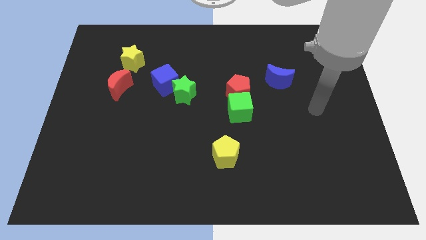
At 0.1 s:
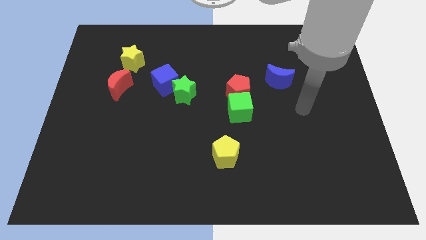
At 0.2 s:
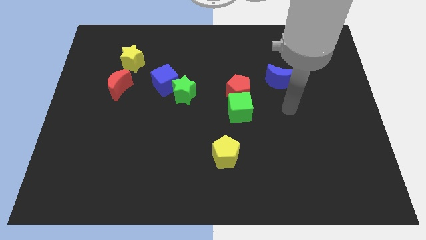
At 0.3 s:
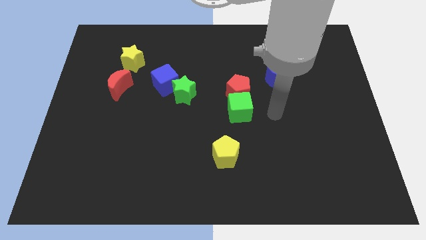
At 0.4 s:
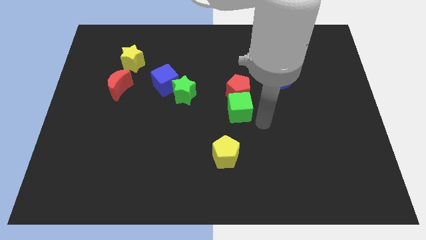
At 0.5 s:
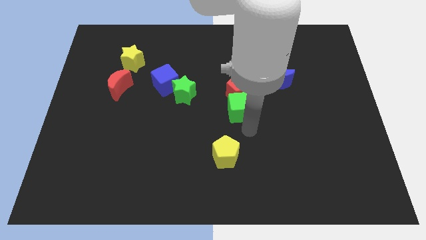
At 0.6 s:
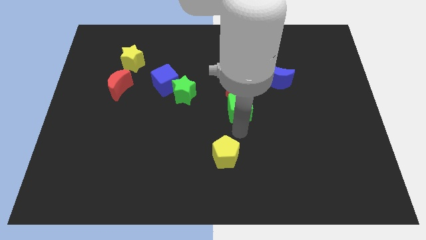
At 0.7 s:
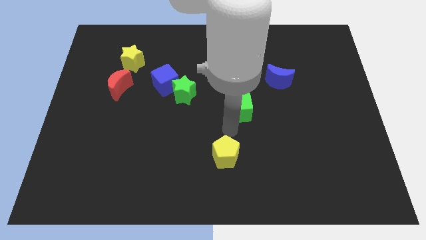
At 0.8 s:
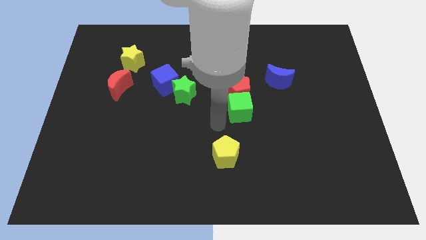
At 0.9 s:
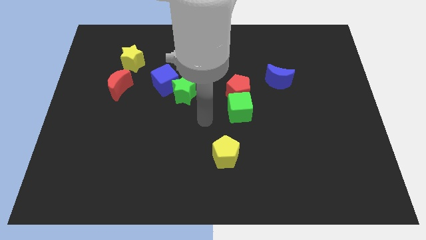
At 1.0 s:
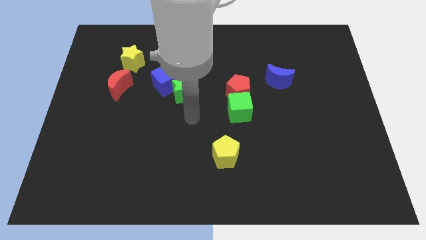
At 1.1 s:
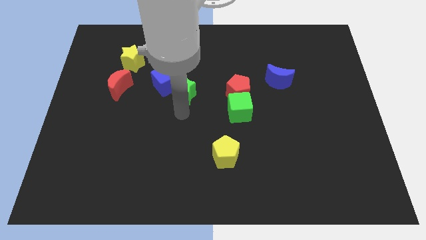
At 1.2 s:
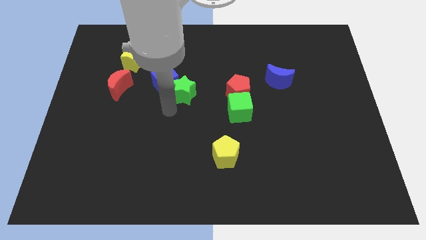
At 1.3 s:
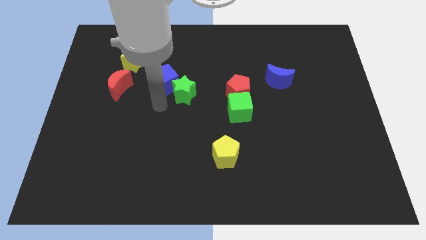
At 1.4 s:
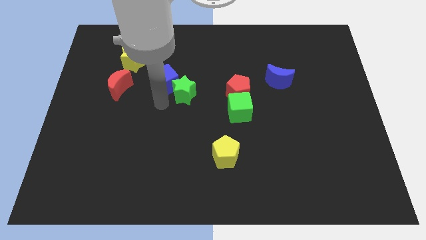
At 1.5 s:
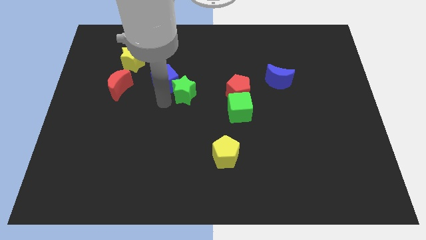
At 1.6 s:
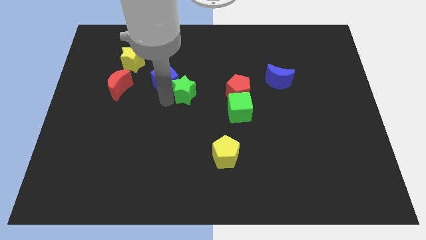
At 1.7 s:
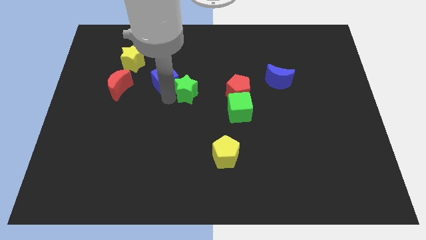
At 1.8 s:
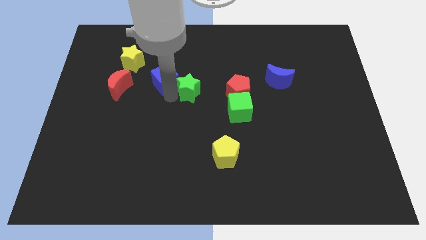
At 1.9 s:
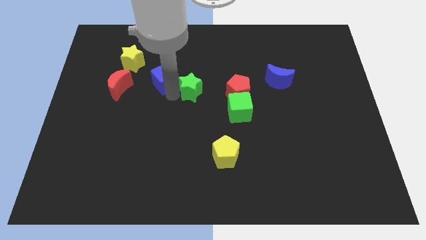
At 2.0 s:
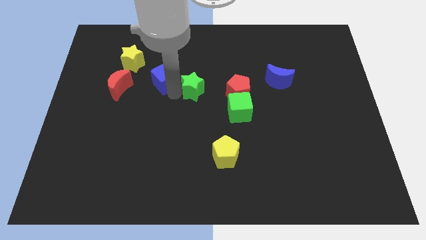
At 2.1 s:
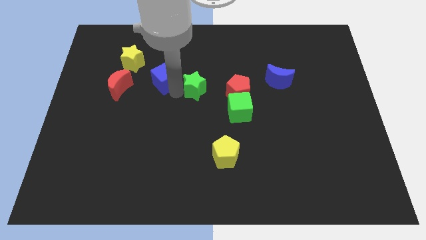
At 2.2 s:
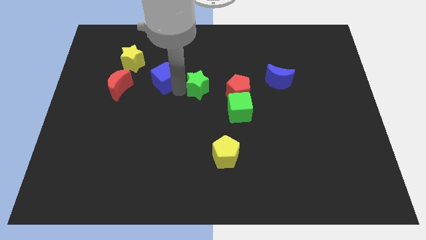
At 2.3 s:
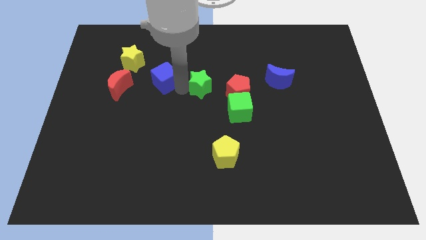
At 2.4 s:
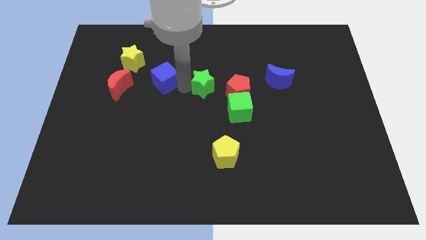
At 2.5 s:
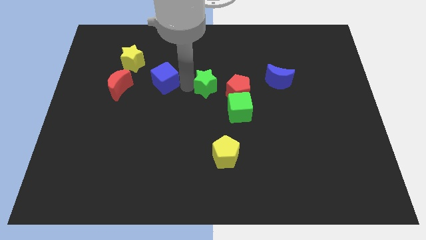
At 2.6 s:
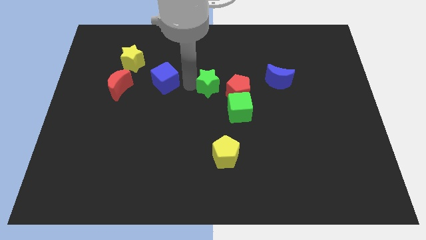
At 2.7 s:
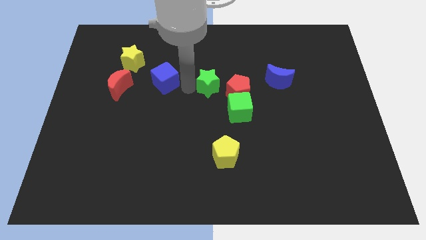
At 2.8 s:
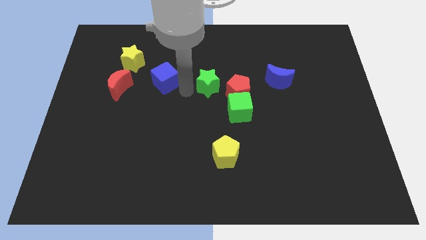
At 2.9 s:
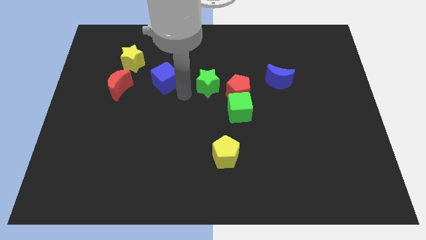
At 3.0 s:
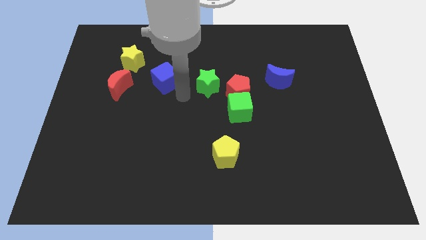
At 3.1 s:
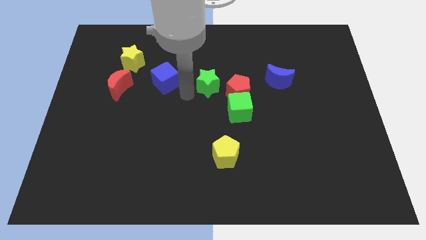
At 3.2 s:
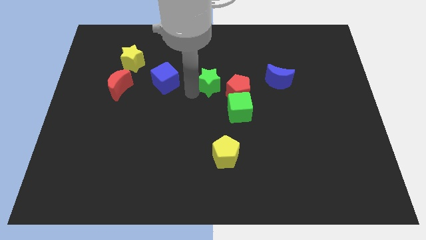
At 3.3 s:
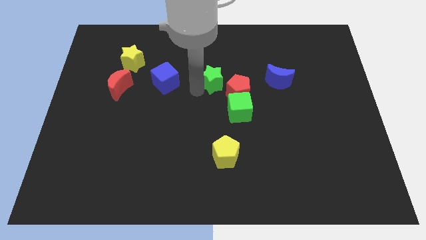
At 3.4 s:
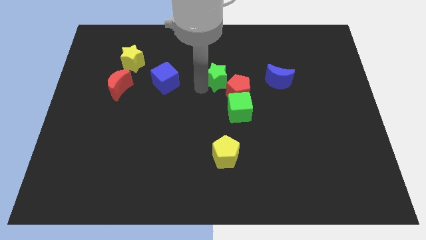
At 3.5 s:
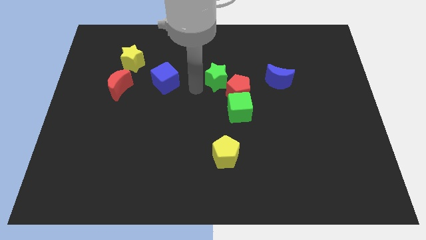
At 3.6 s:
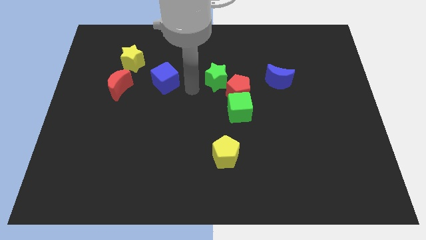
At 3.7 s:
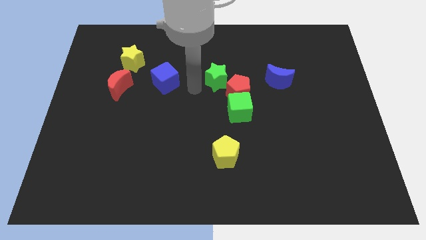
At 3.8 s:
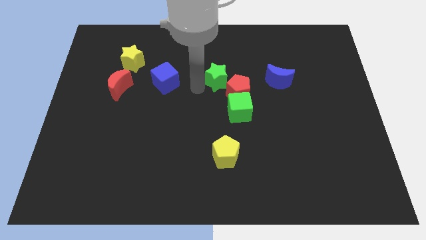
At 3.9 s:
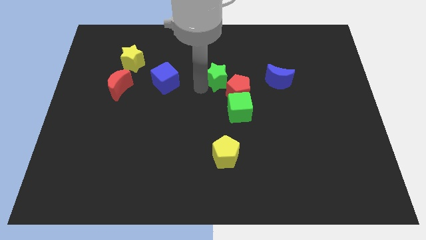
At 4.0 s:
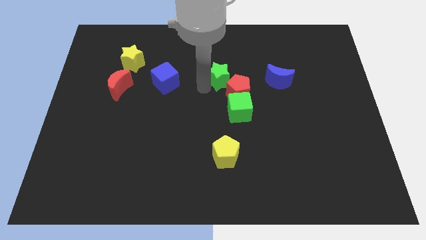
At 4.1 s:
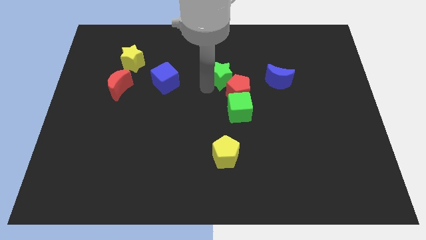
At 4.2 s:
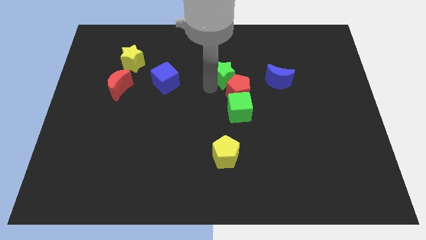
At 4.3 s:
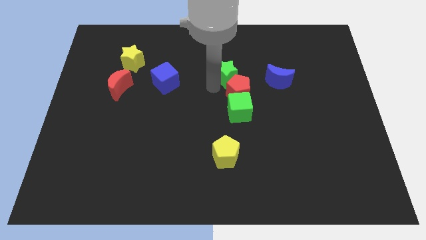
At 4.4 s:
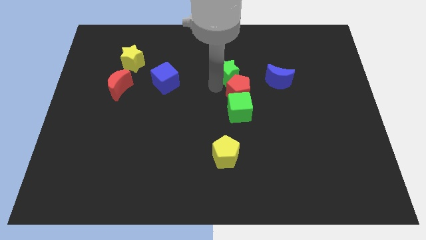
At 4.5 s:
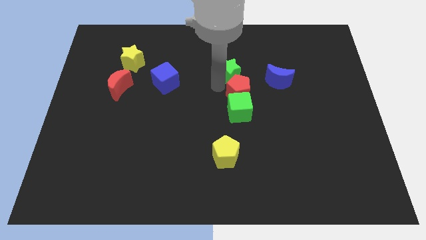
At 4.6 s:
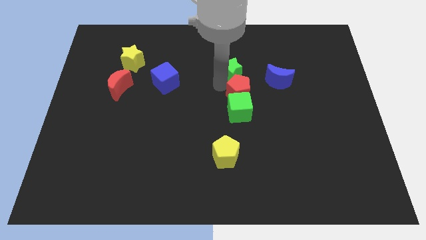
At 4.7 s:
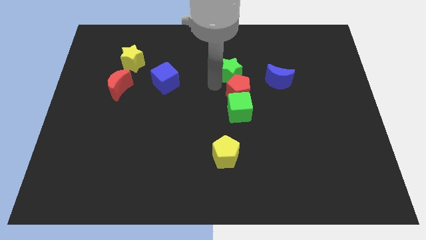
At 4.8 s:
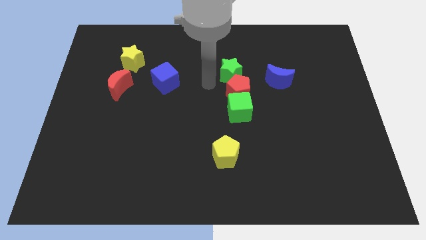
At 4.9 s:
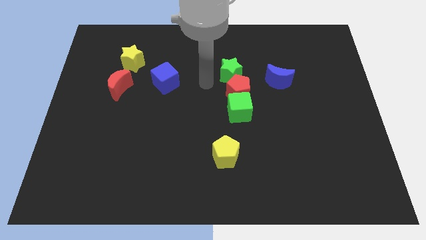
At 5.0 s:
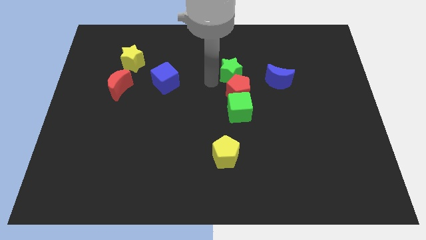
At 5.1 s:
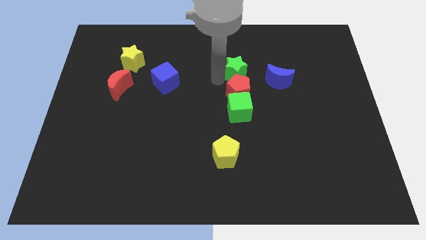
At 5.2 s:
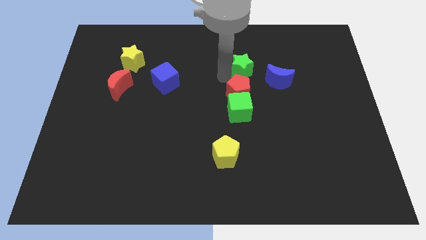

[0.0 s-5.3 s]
move the green star to the top left of the blue moon

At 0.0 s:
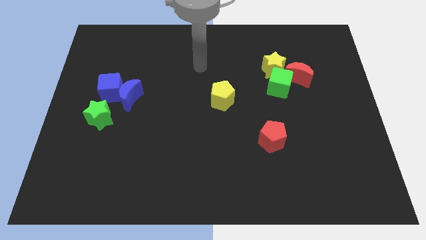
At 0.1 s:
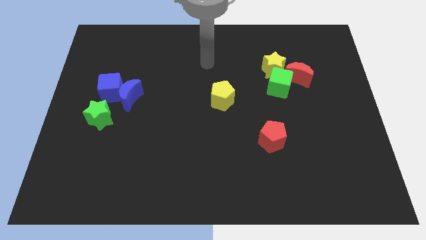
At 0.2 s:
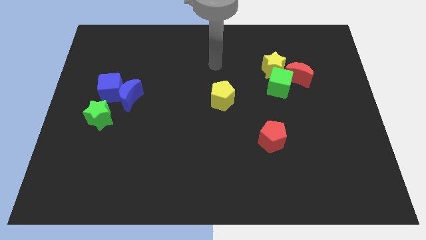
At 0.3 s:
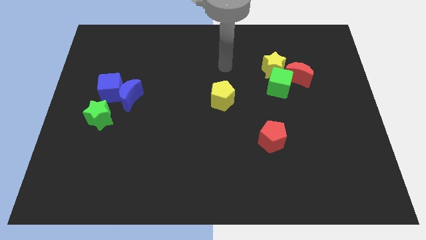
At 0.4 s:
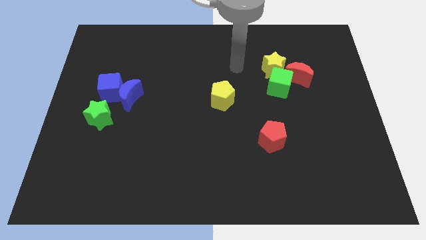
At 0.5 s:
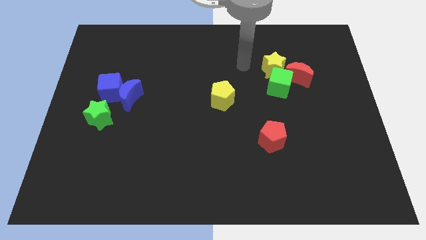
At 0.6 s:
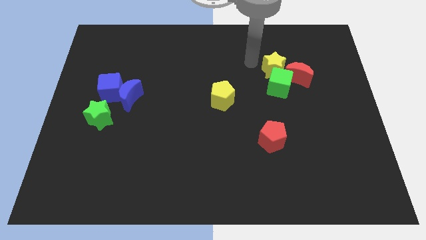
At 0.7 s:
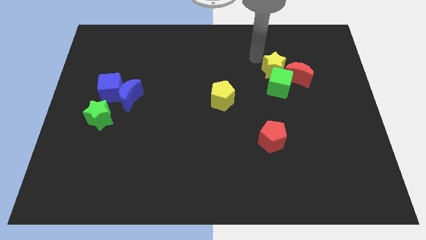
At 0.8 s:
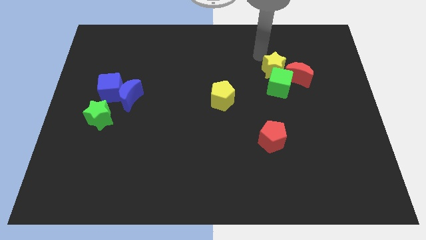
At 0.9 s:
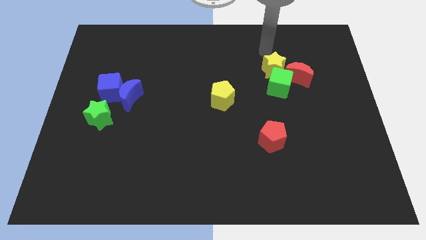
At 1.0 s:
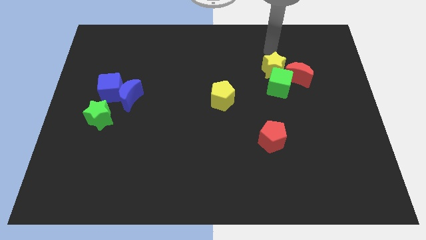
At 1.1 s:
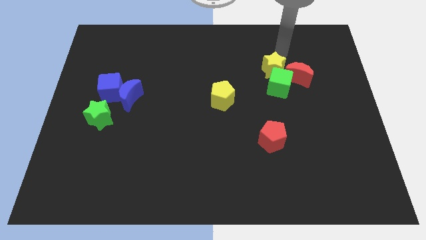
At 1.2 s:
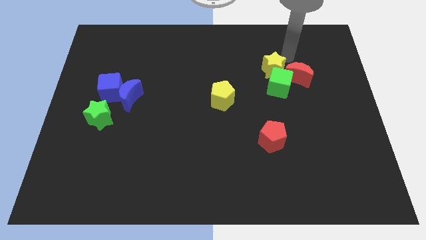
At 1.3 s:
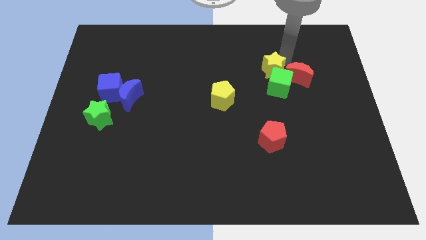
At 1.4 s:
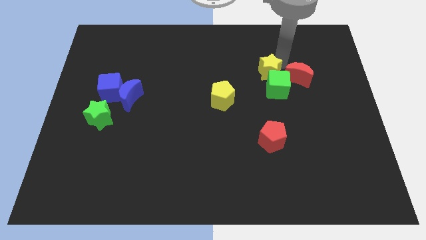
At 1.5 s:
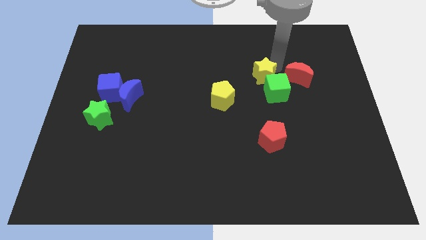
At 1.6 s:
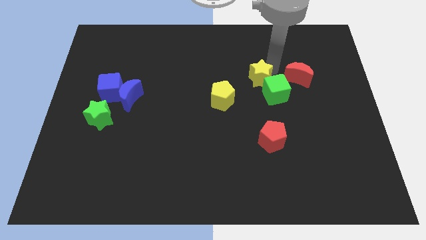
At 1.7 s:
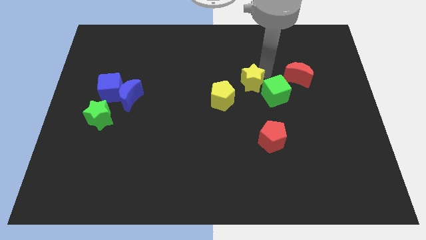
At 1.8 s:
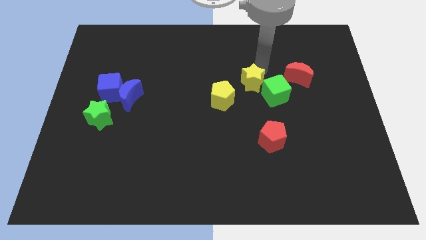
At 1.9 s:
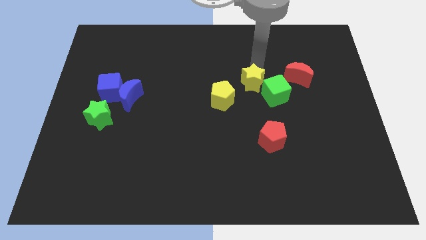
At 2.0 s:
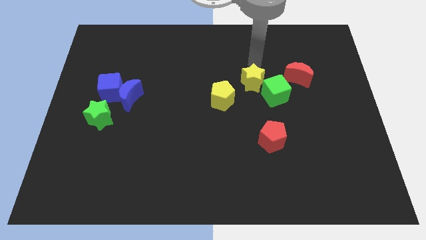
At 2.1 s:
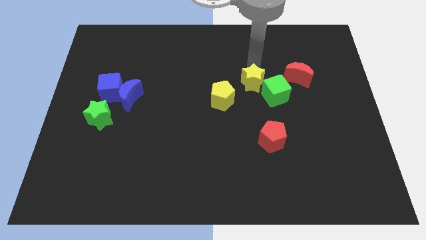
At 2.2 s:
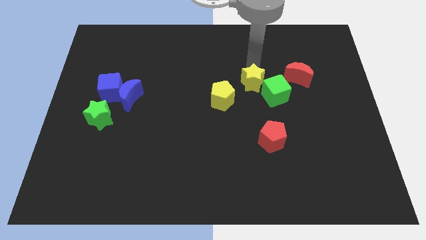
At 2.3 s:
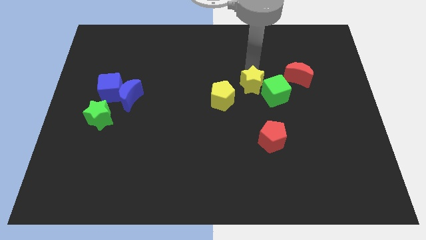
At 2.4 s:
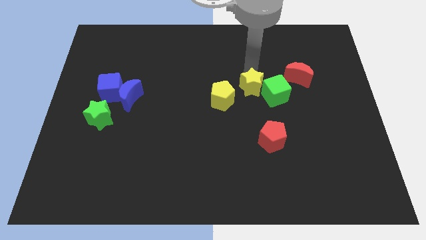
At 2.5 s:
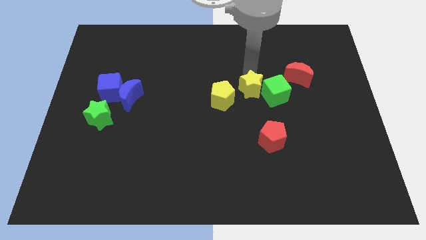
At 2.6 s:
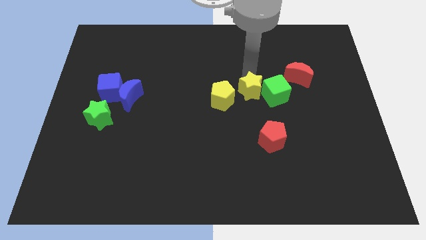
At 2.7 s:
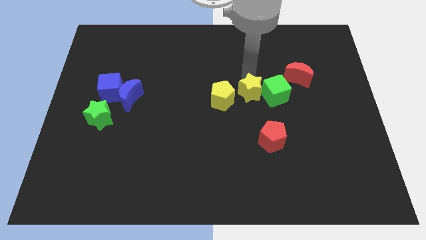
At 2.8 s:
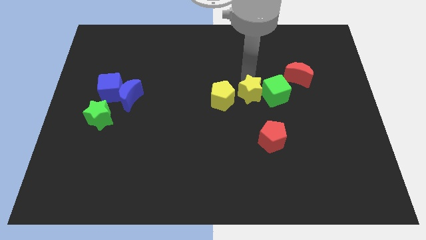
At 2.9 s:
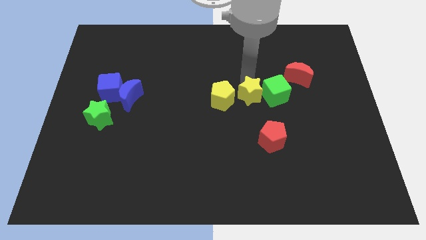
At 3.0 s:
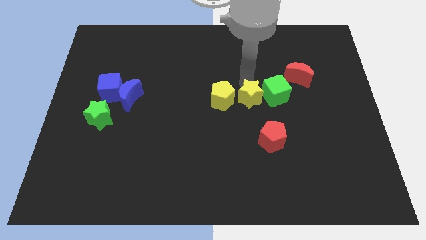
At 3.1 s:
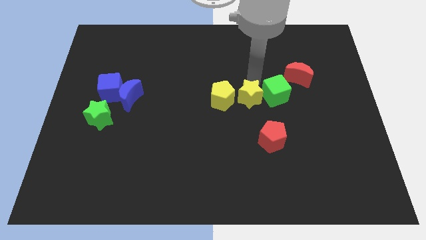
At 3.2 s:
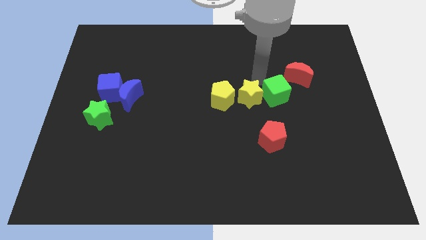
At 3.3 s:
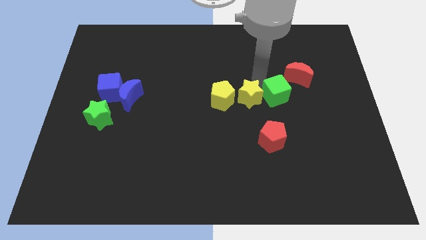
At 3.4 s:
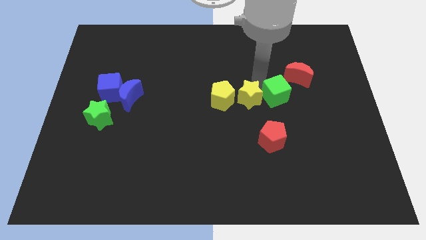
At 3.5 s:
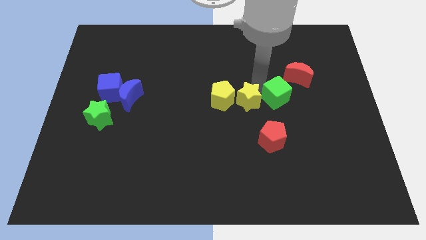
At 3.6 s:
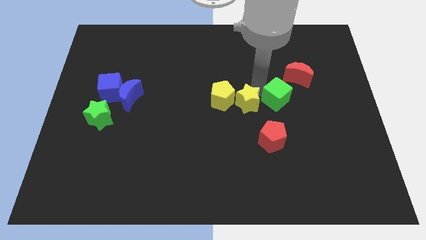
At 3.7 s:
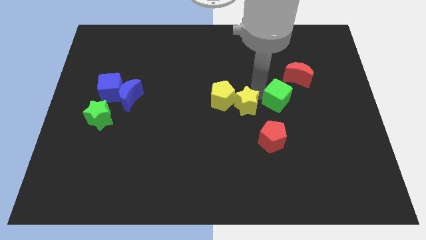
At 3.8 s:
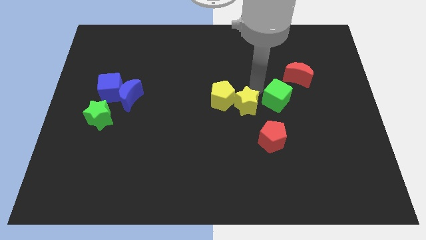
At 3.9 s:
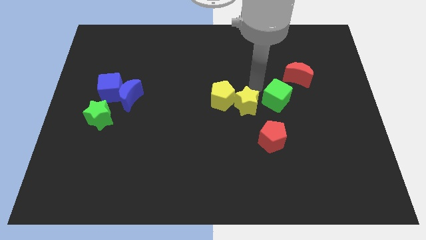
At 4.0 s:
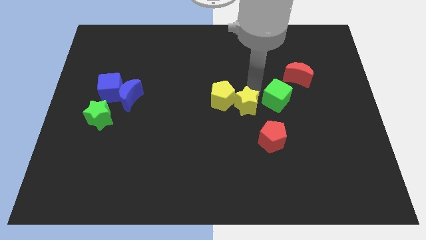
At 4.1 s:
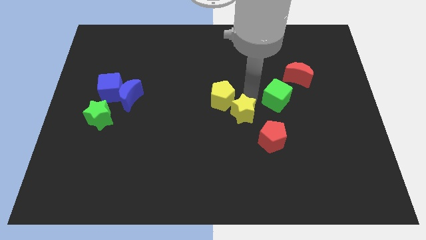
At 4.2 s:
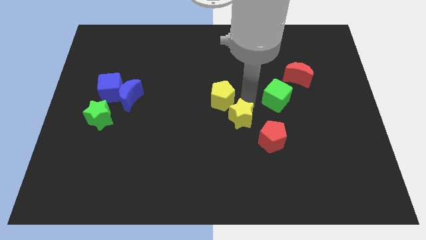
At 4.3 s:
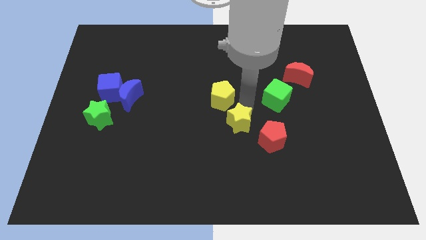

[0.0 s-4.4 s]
move the yellow star to the left side of the red pentagon
